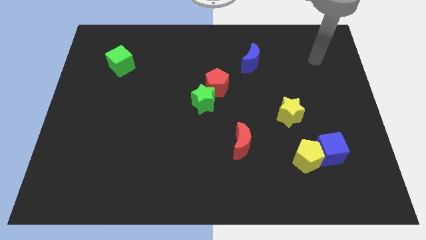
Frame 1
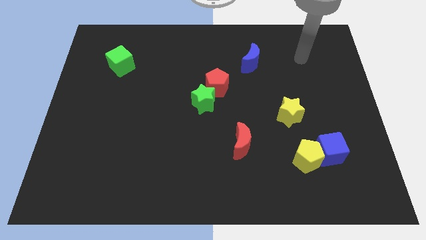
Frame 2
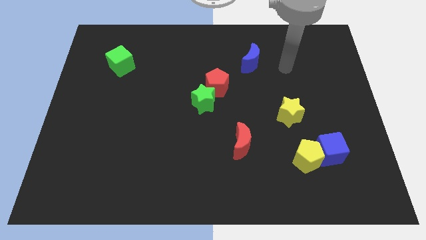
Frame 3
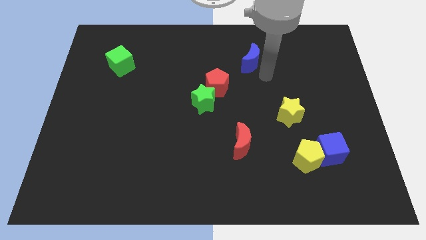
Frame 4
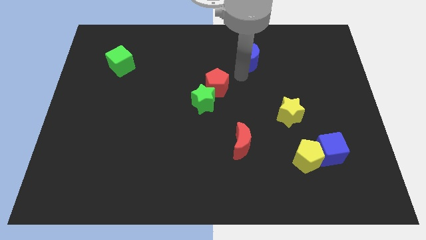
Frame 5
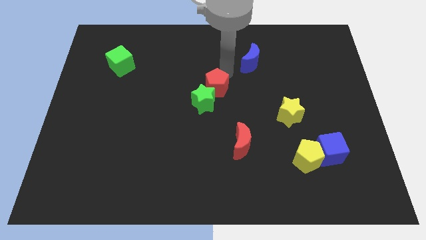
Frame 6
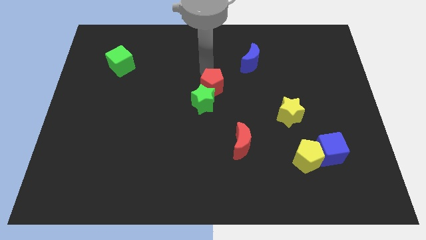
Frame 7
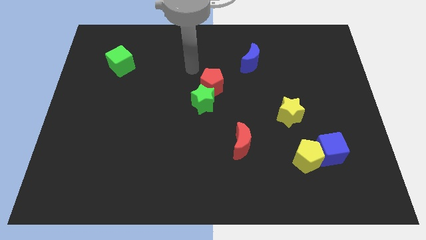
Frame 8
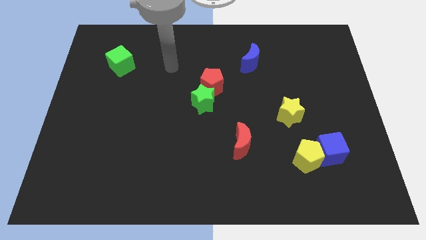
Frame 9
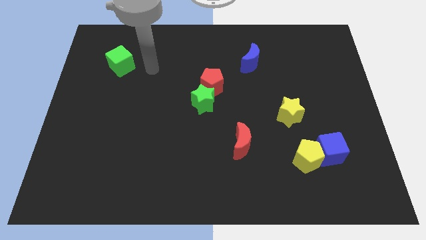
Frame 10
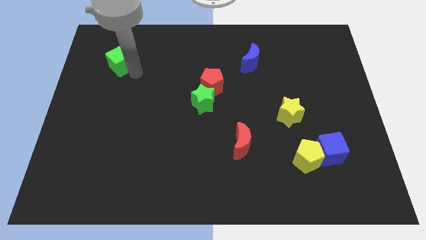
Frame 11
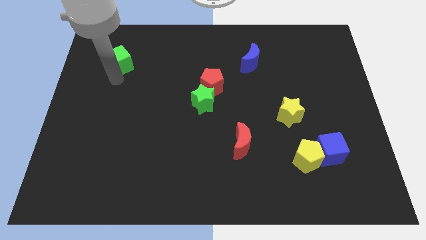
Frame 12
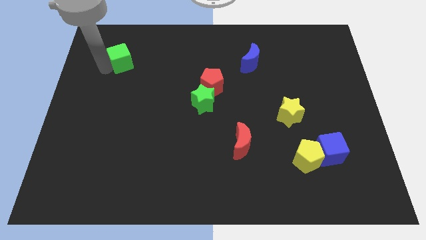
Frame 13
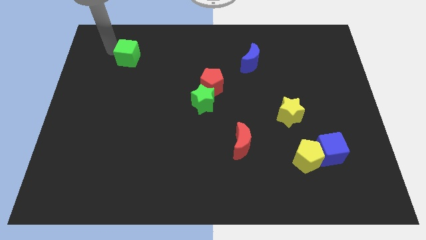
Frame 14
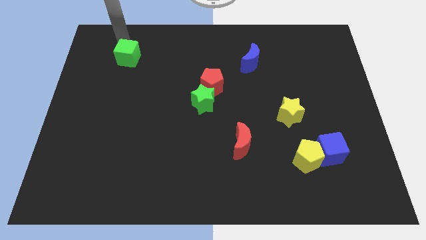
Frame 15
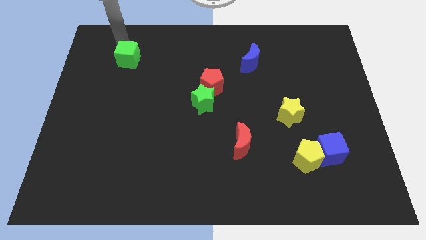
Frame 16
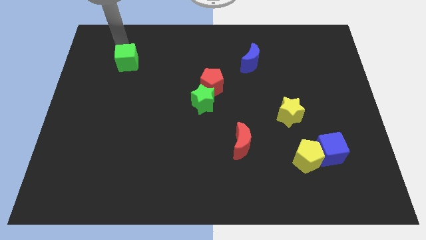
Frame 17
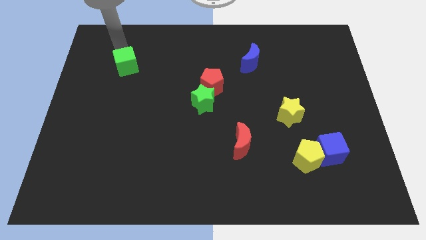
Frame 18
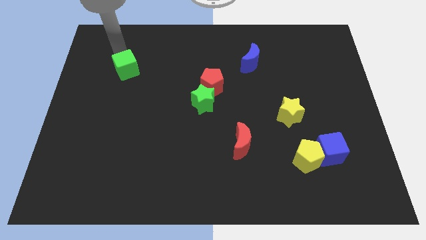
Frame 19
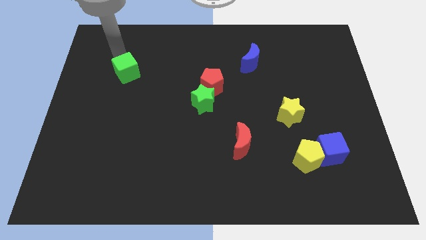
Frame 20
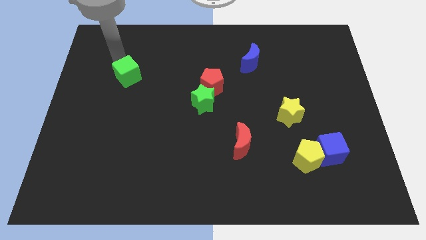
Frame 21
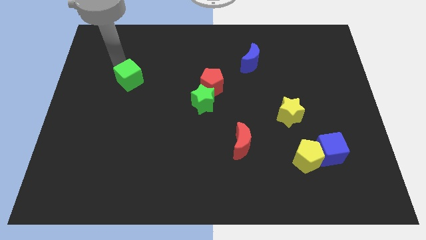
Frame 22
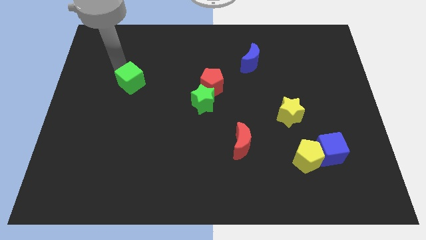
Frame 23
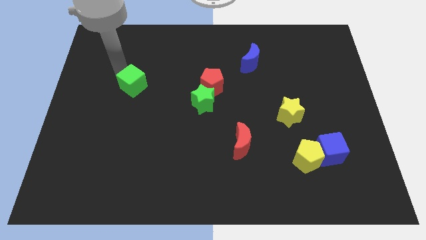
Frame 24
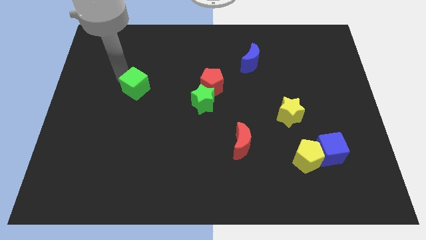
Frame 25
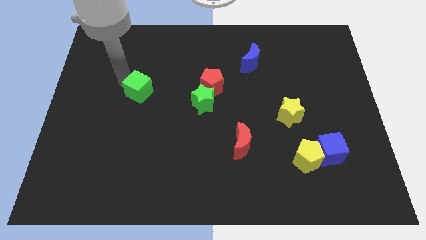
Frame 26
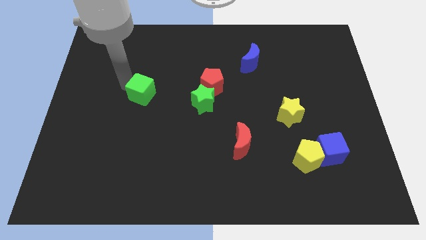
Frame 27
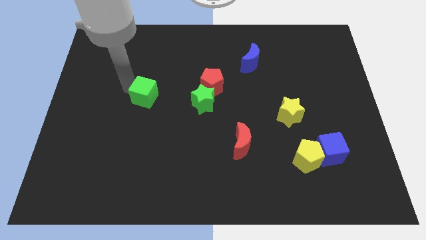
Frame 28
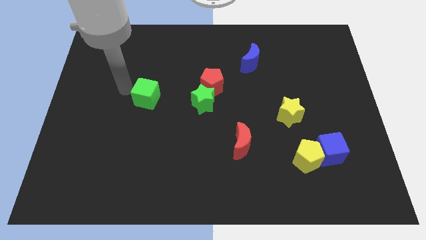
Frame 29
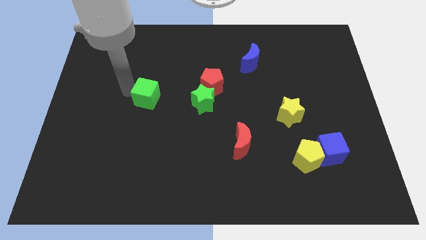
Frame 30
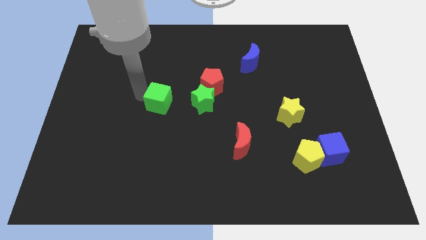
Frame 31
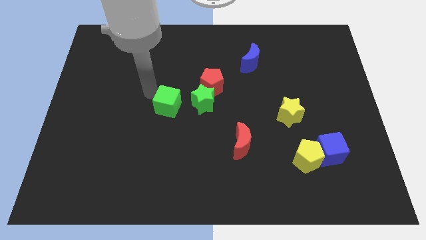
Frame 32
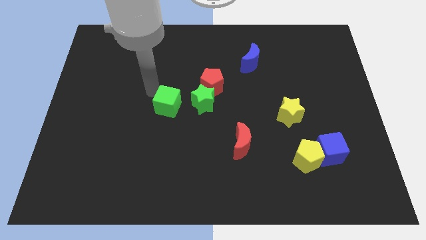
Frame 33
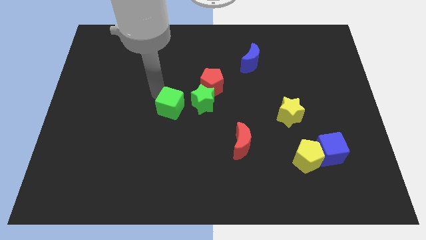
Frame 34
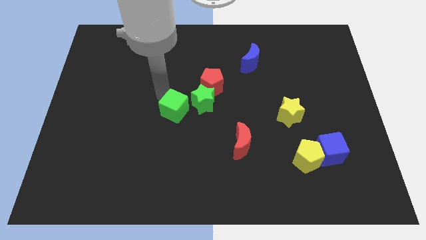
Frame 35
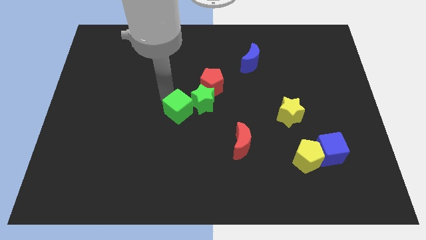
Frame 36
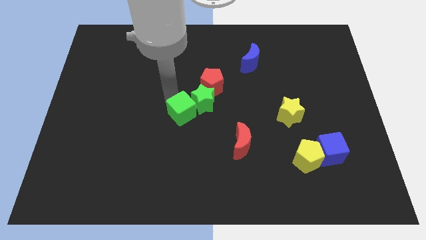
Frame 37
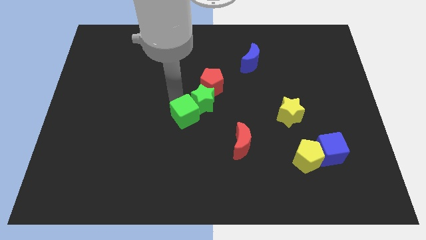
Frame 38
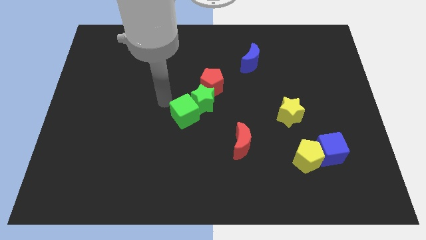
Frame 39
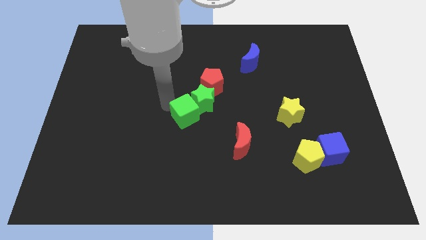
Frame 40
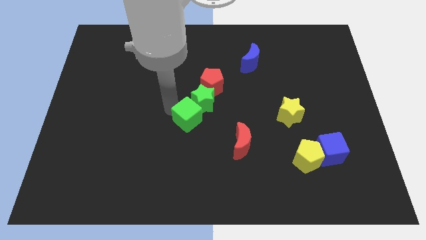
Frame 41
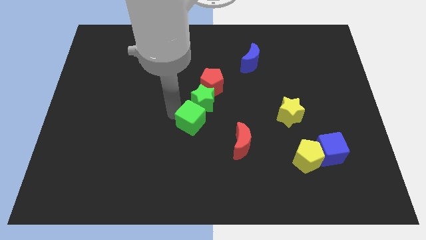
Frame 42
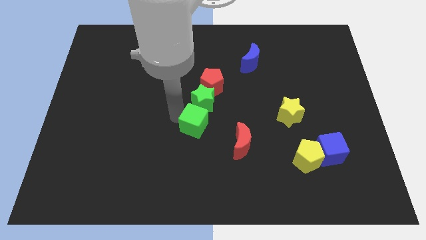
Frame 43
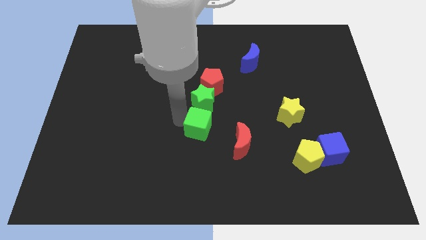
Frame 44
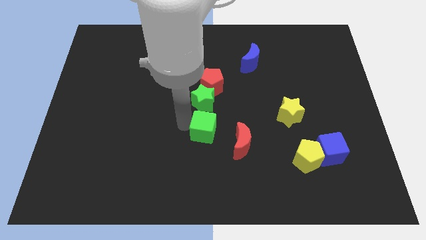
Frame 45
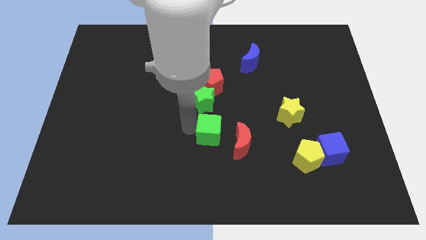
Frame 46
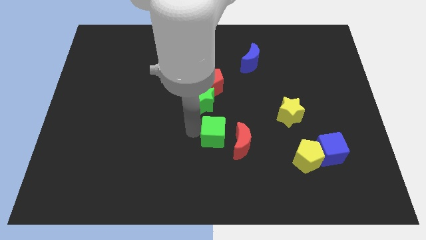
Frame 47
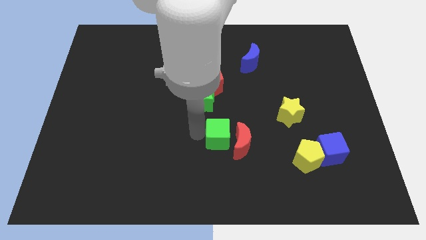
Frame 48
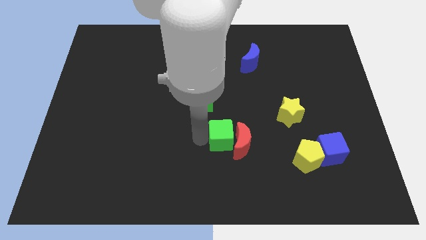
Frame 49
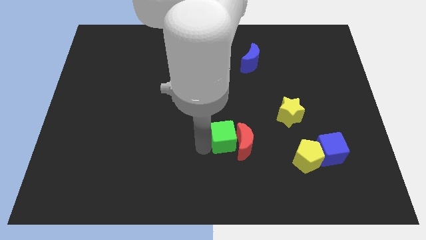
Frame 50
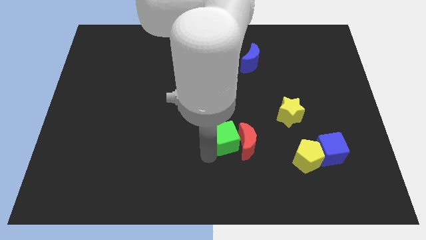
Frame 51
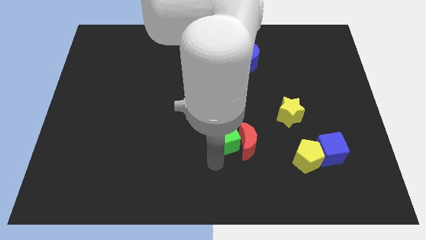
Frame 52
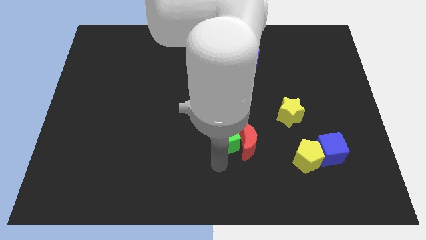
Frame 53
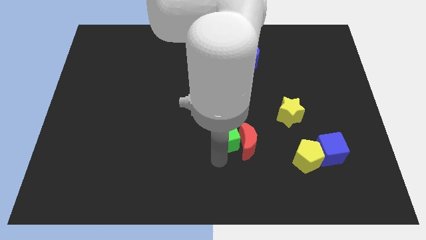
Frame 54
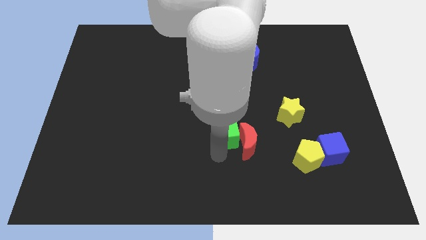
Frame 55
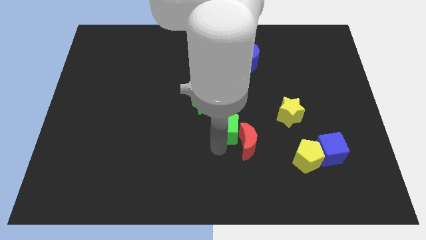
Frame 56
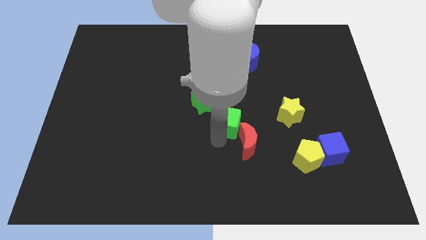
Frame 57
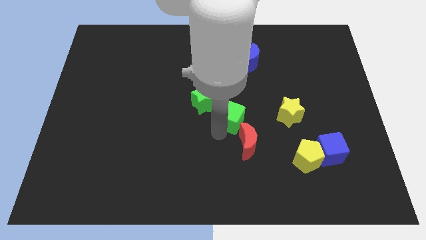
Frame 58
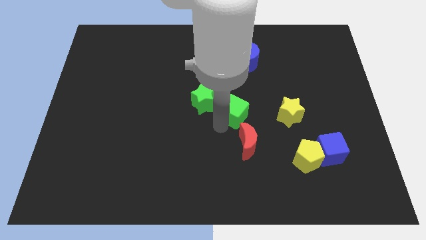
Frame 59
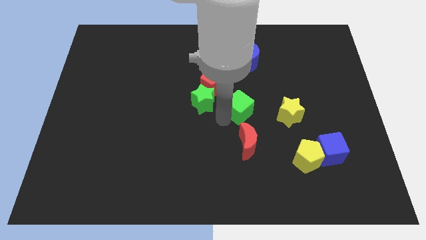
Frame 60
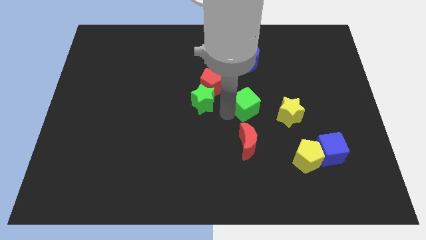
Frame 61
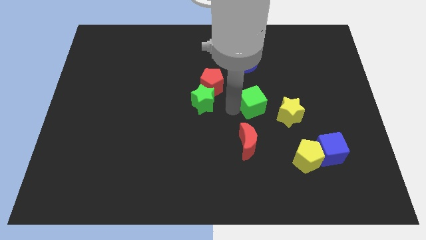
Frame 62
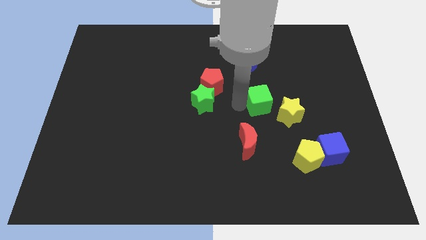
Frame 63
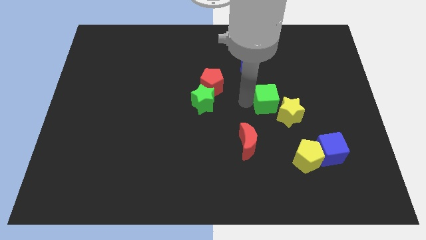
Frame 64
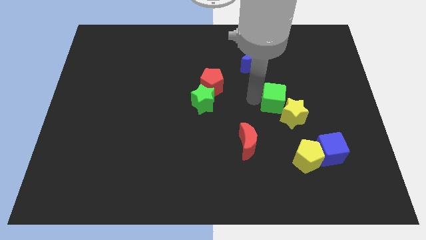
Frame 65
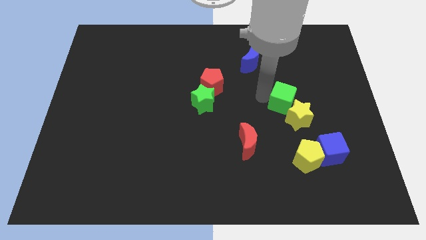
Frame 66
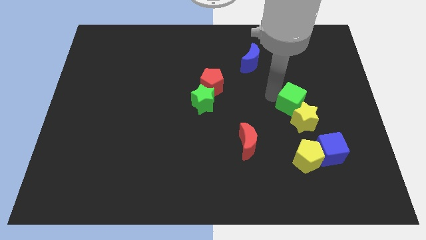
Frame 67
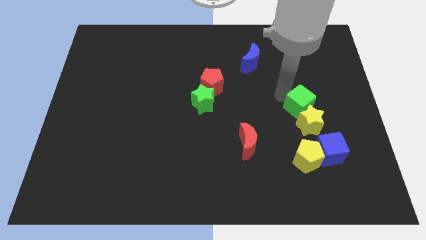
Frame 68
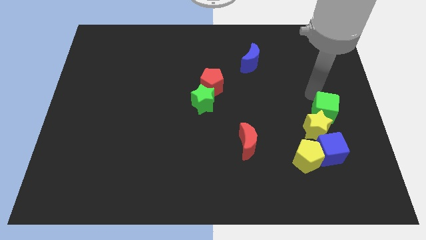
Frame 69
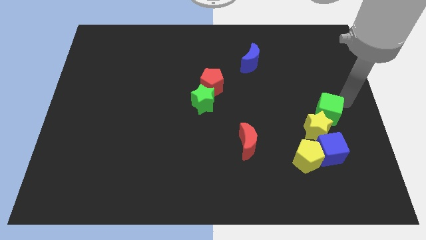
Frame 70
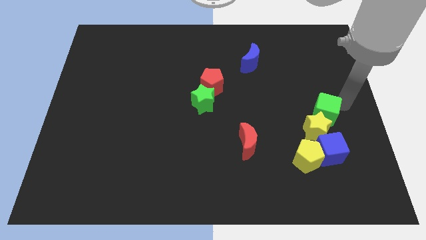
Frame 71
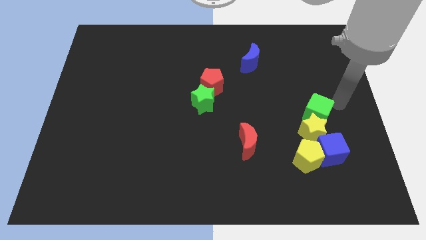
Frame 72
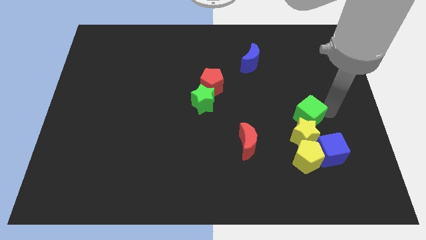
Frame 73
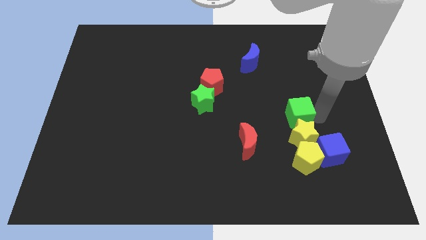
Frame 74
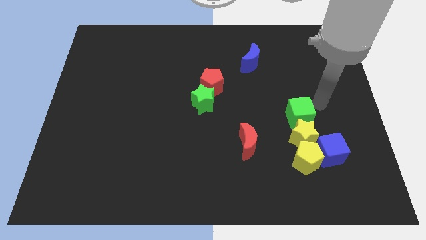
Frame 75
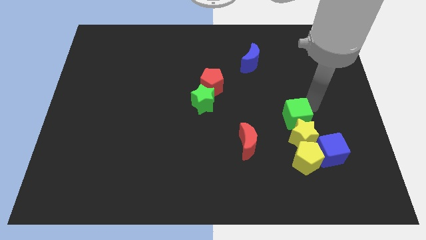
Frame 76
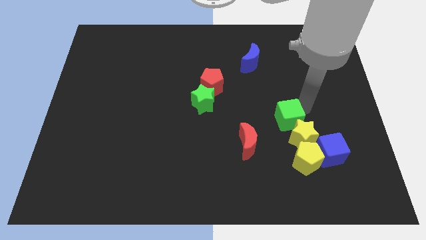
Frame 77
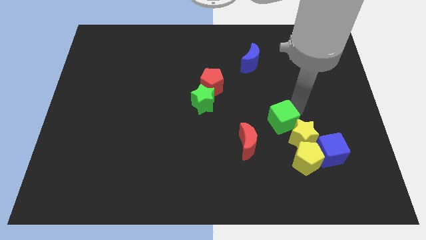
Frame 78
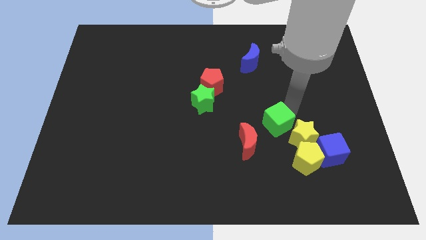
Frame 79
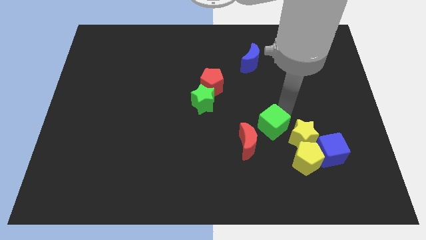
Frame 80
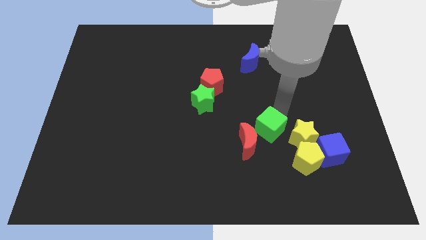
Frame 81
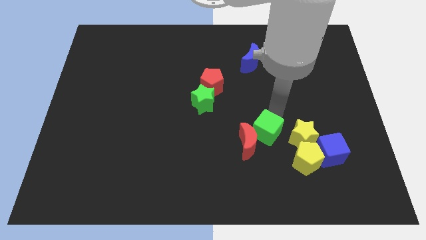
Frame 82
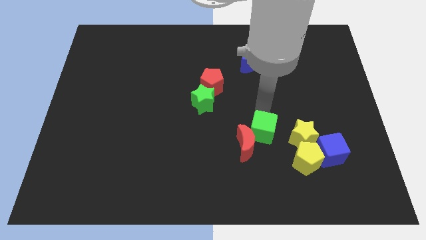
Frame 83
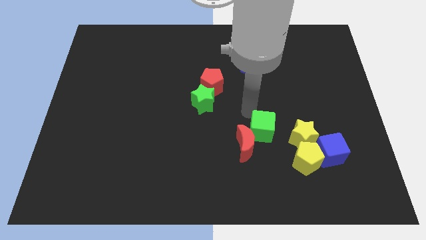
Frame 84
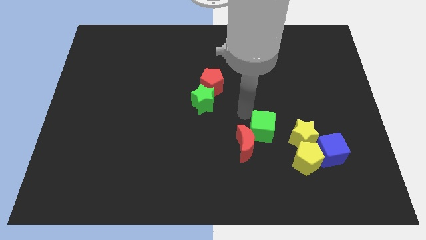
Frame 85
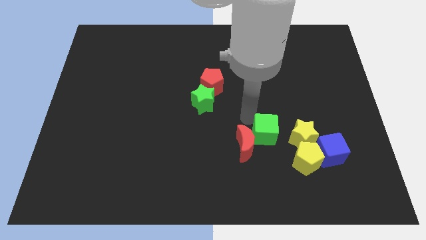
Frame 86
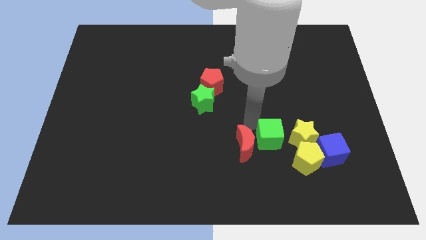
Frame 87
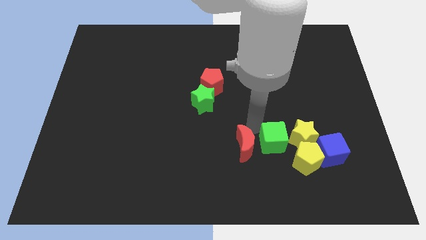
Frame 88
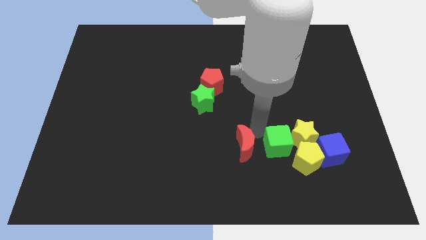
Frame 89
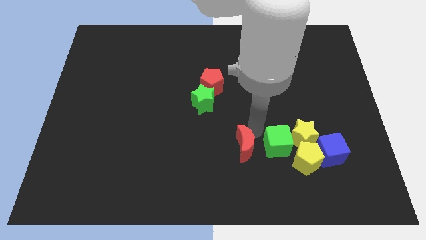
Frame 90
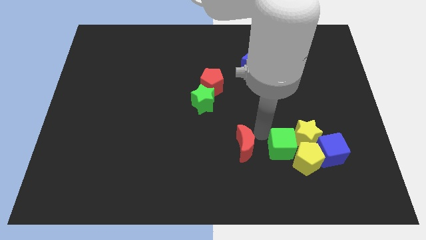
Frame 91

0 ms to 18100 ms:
slide the green cube next to the yellow pentagon
